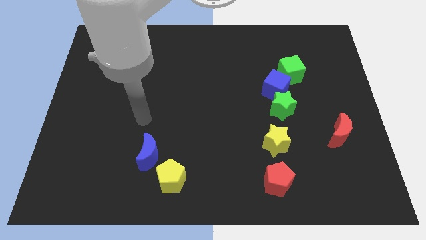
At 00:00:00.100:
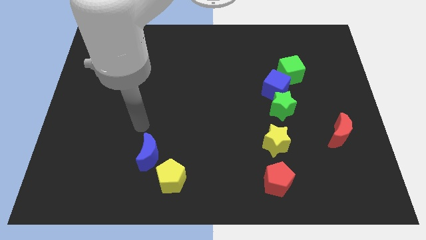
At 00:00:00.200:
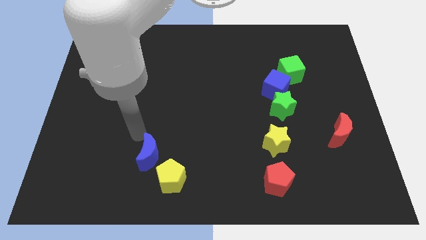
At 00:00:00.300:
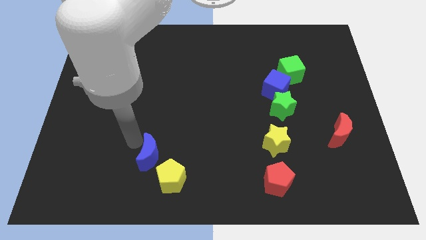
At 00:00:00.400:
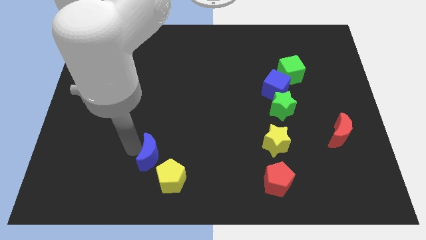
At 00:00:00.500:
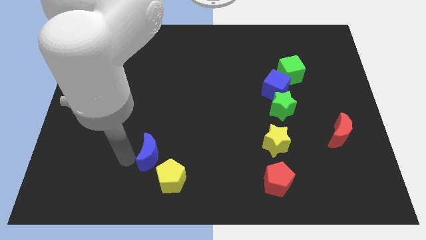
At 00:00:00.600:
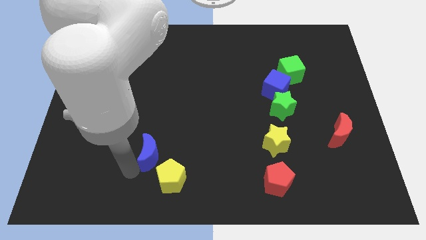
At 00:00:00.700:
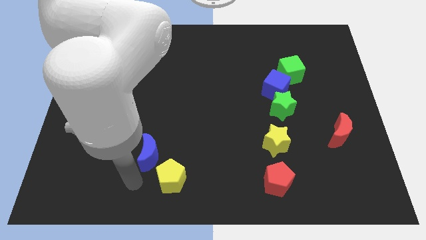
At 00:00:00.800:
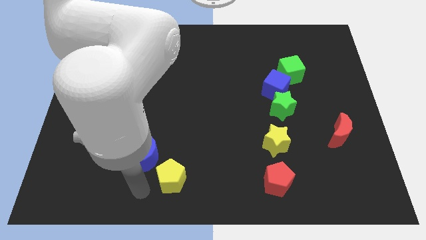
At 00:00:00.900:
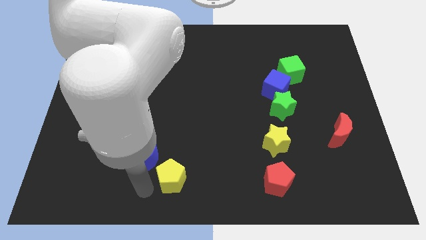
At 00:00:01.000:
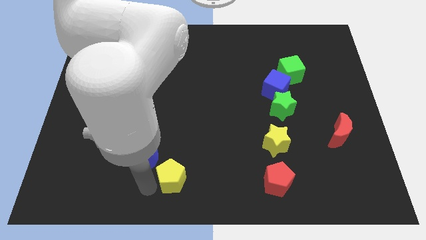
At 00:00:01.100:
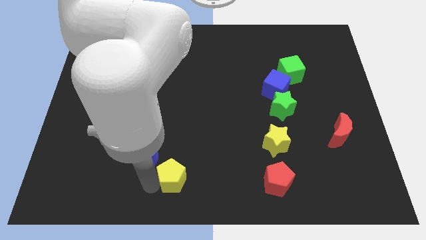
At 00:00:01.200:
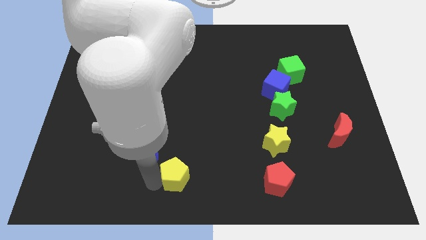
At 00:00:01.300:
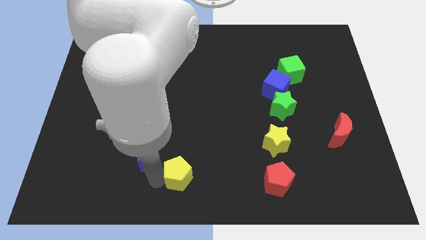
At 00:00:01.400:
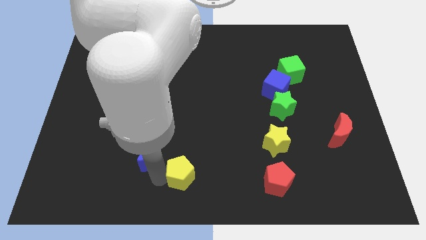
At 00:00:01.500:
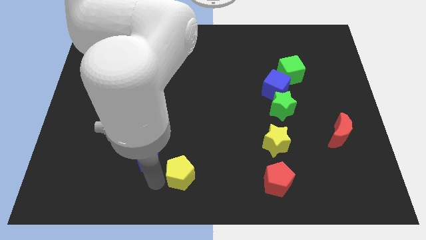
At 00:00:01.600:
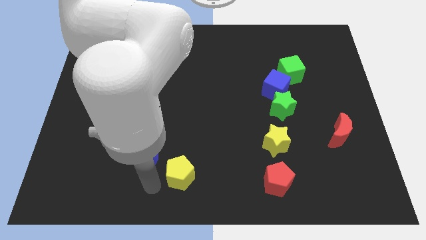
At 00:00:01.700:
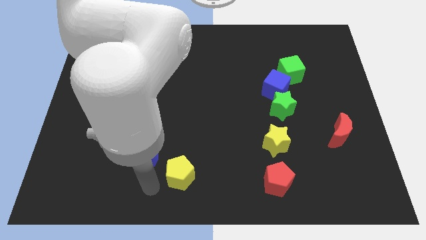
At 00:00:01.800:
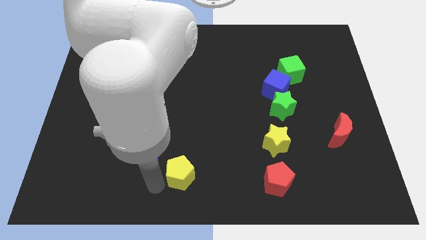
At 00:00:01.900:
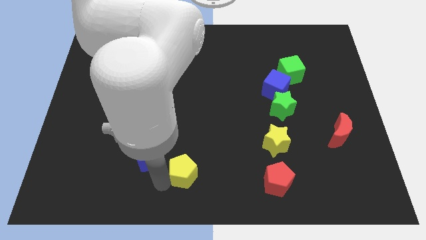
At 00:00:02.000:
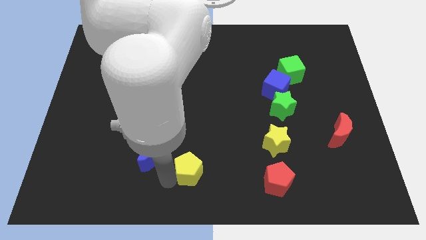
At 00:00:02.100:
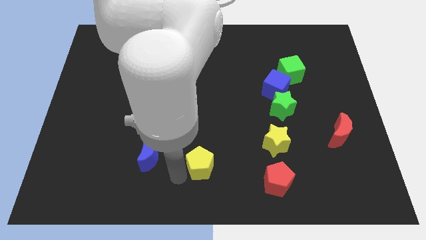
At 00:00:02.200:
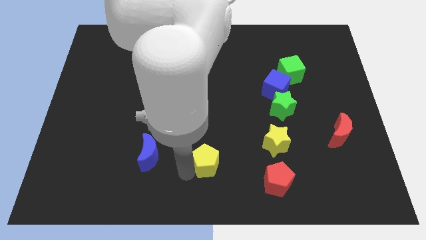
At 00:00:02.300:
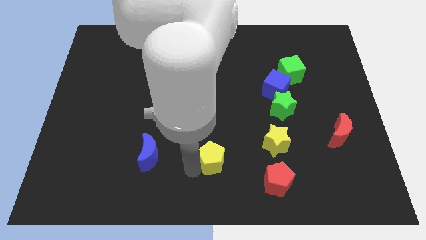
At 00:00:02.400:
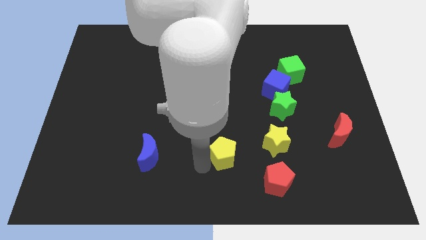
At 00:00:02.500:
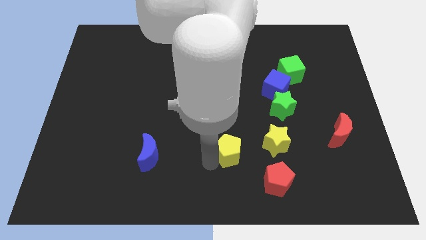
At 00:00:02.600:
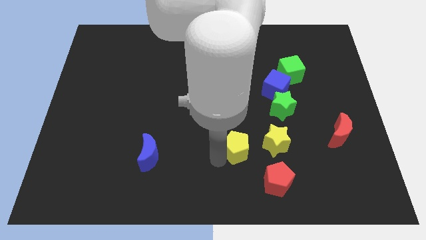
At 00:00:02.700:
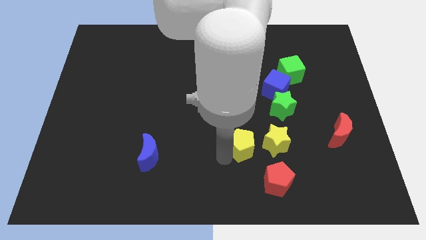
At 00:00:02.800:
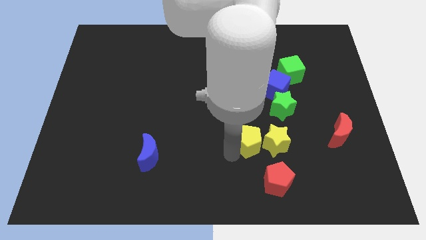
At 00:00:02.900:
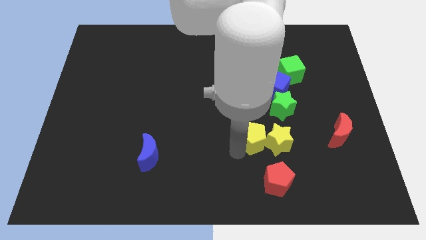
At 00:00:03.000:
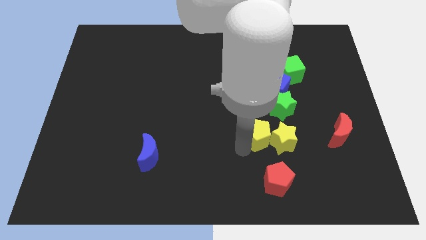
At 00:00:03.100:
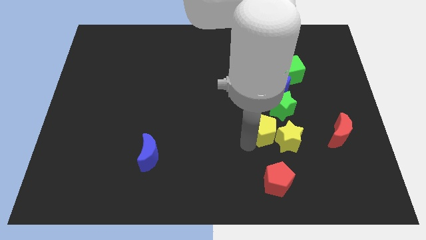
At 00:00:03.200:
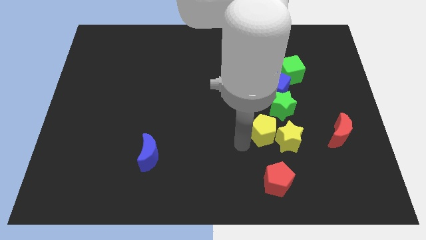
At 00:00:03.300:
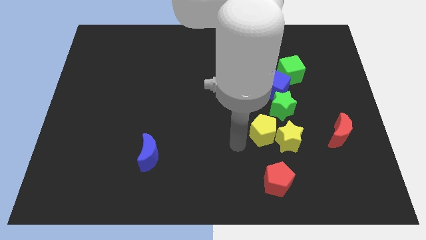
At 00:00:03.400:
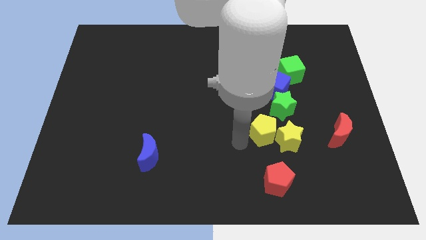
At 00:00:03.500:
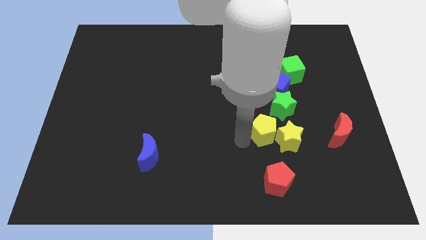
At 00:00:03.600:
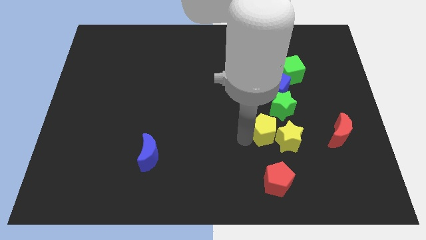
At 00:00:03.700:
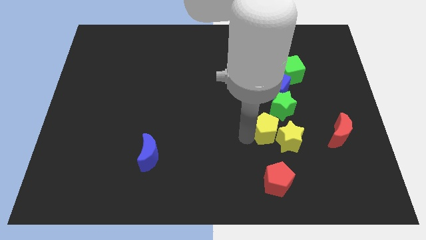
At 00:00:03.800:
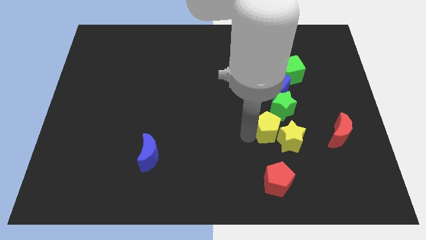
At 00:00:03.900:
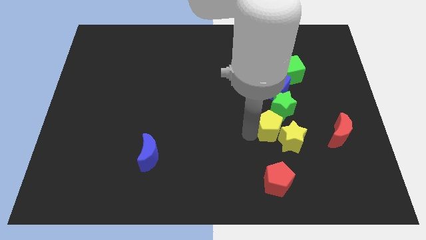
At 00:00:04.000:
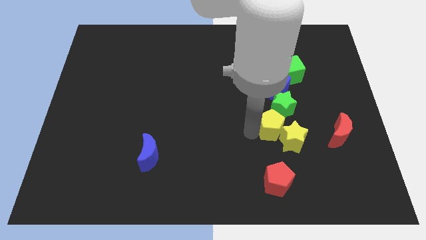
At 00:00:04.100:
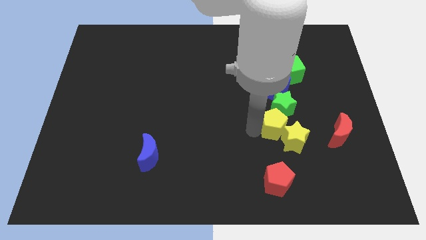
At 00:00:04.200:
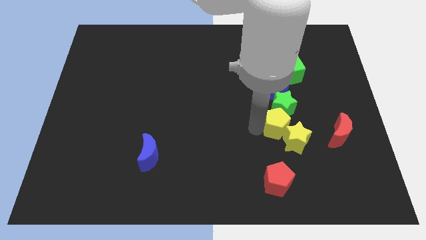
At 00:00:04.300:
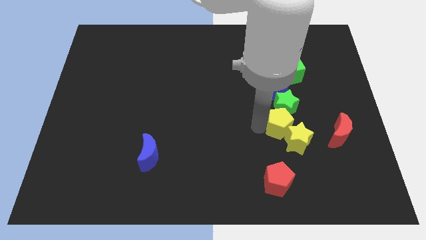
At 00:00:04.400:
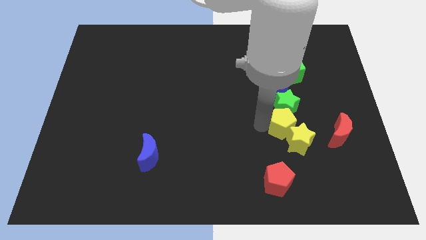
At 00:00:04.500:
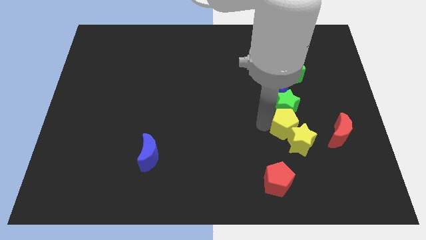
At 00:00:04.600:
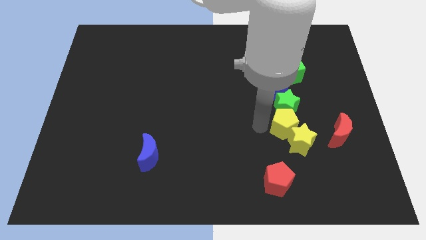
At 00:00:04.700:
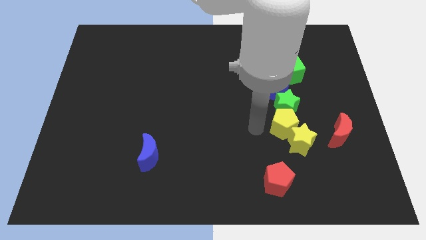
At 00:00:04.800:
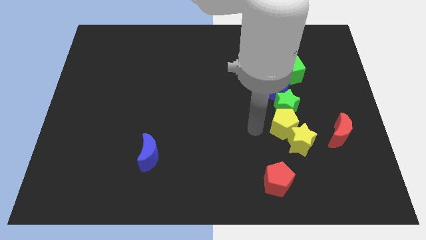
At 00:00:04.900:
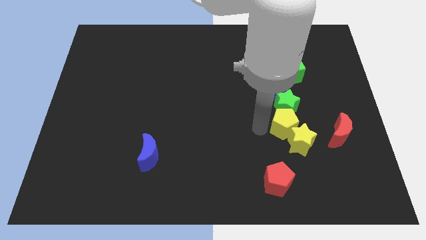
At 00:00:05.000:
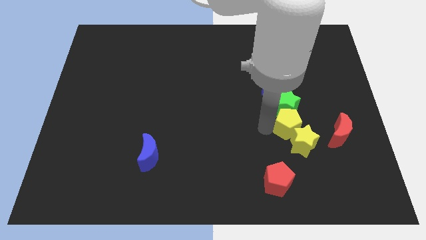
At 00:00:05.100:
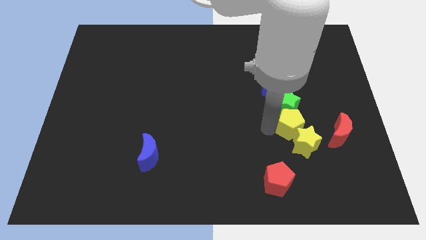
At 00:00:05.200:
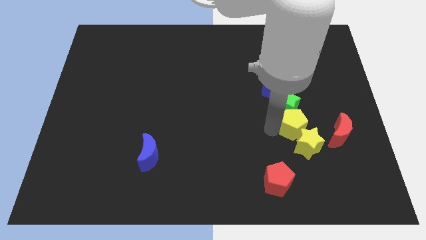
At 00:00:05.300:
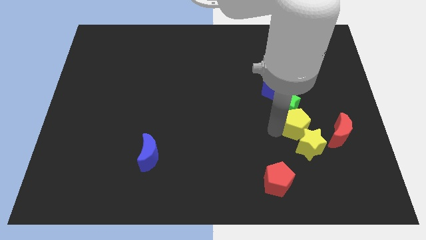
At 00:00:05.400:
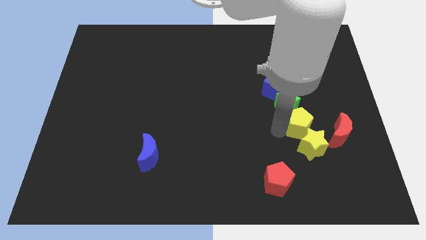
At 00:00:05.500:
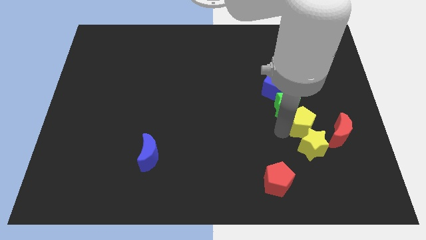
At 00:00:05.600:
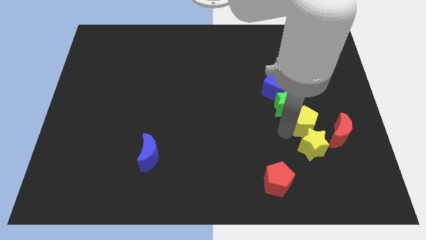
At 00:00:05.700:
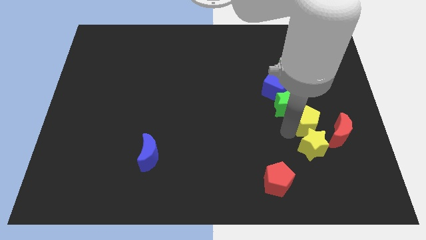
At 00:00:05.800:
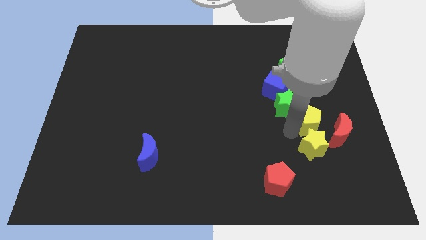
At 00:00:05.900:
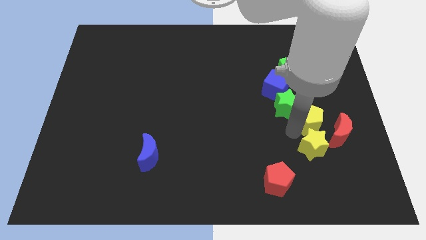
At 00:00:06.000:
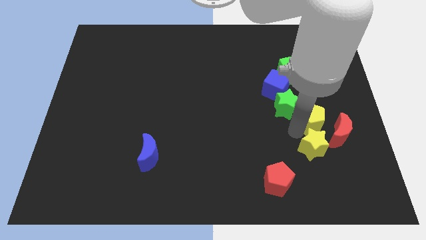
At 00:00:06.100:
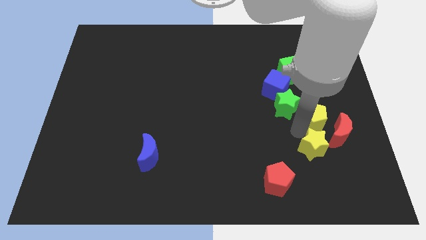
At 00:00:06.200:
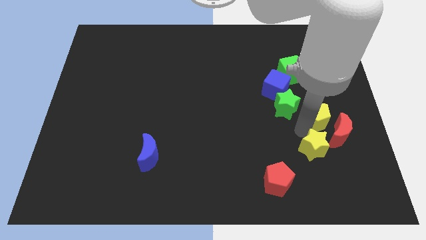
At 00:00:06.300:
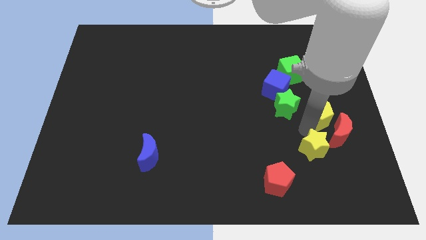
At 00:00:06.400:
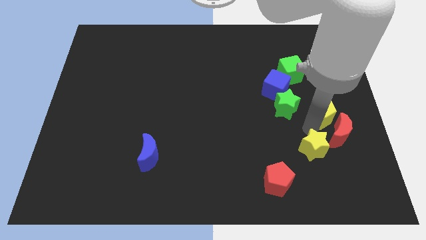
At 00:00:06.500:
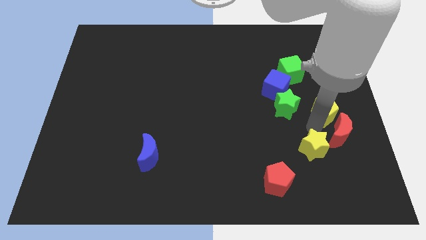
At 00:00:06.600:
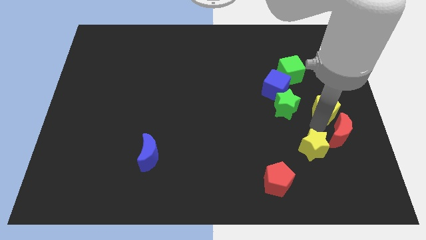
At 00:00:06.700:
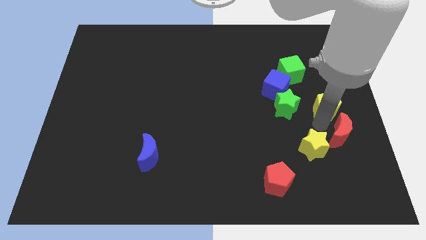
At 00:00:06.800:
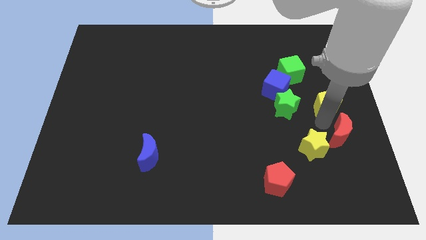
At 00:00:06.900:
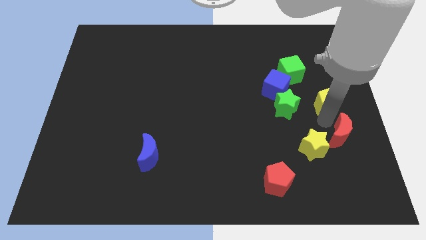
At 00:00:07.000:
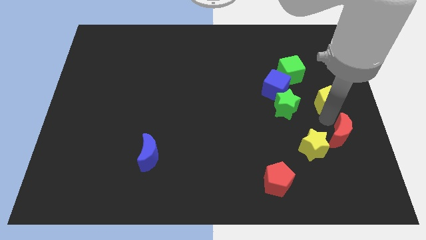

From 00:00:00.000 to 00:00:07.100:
put the yellow pentagon to the right of the blue cube
